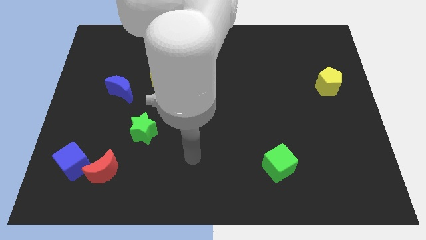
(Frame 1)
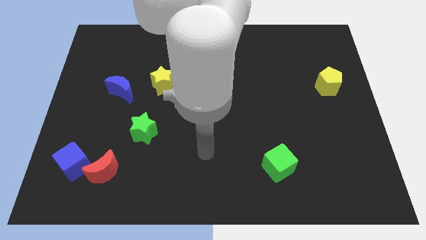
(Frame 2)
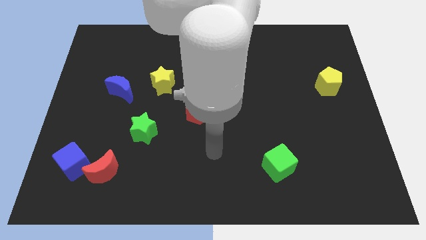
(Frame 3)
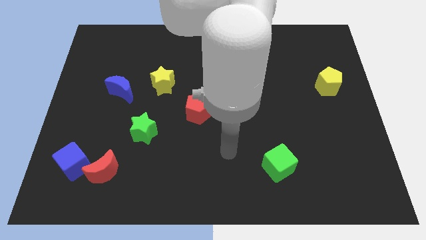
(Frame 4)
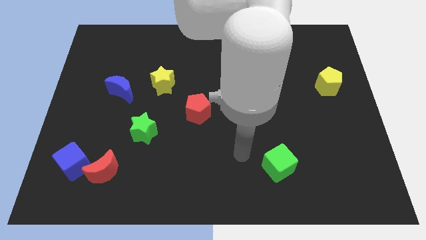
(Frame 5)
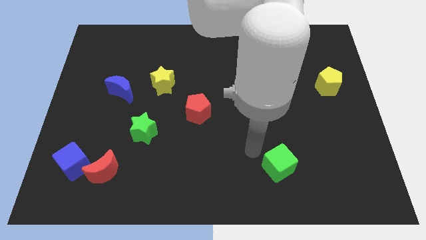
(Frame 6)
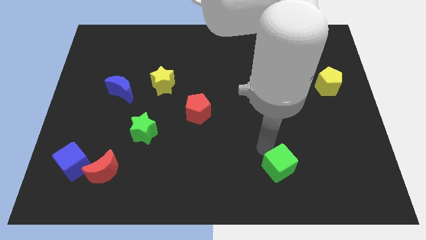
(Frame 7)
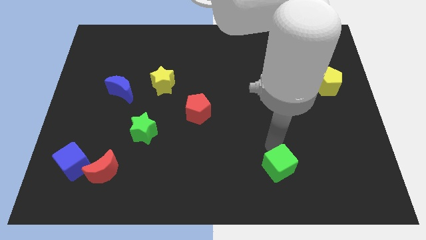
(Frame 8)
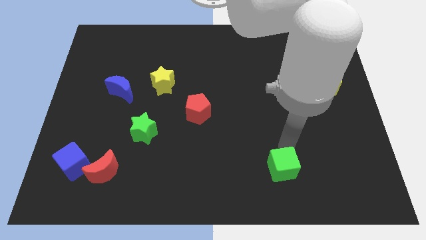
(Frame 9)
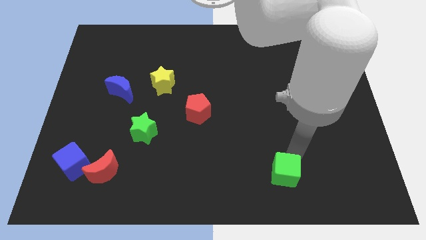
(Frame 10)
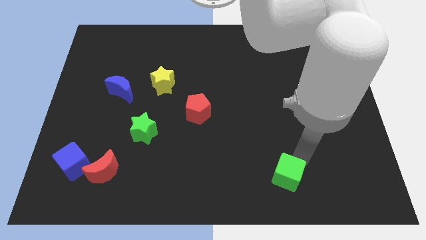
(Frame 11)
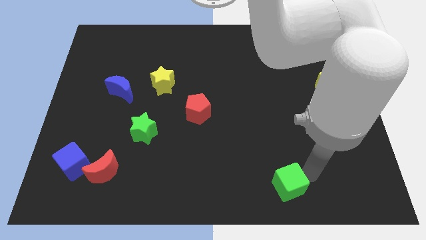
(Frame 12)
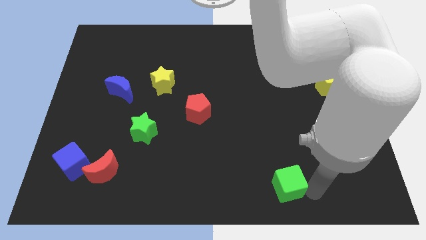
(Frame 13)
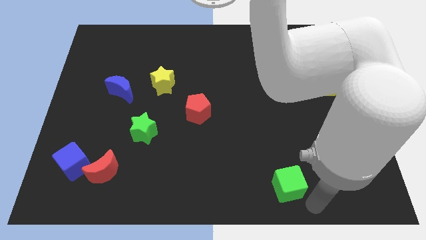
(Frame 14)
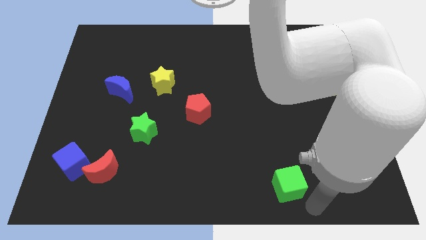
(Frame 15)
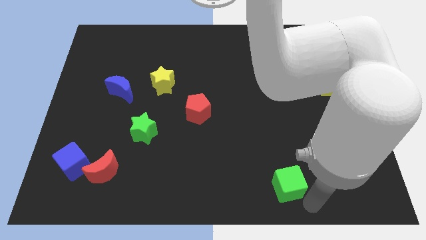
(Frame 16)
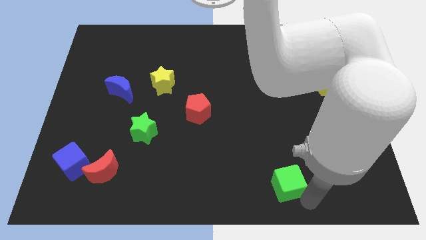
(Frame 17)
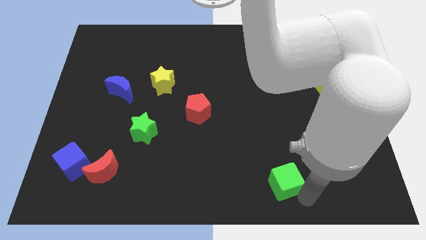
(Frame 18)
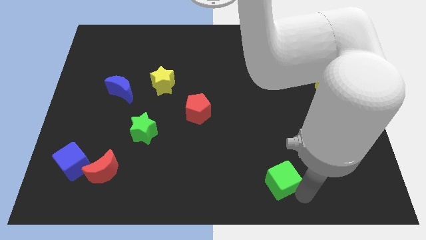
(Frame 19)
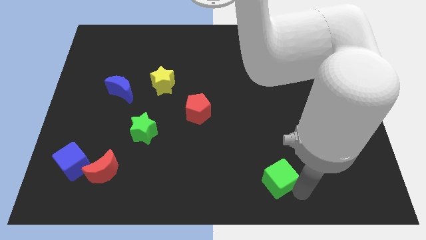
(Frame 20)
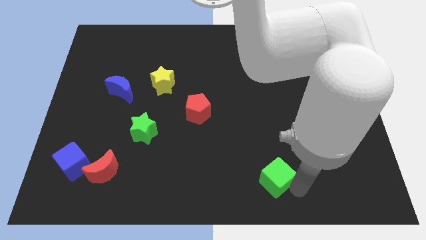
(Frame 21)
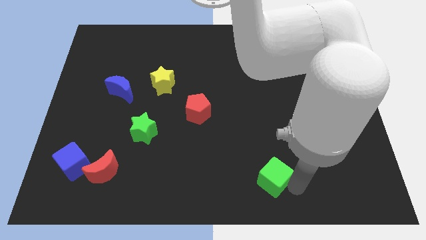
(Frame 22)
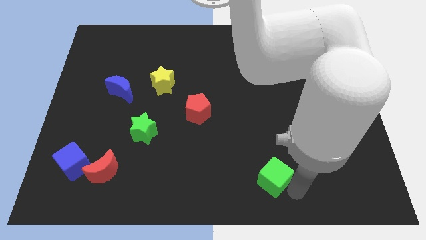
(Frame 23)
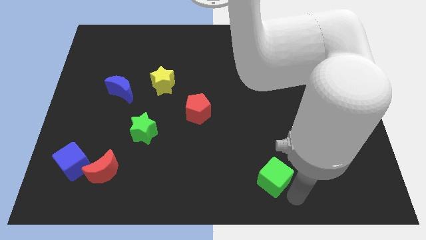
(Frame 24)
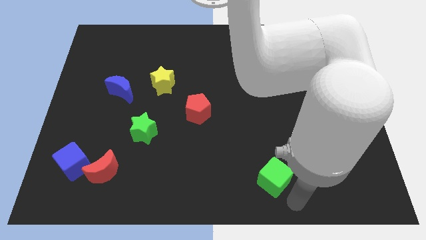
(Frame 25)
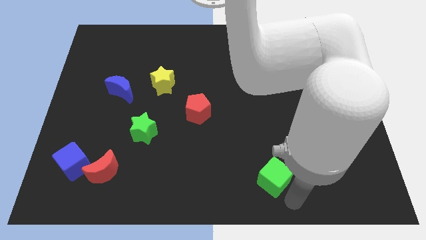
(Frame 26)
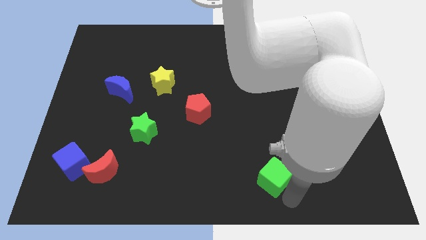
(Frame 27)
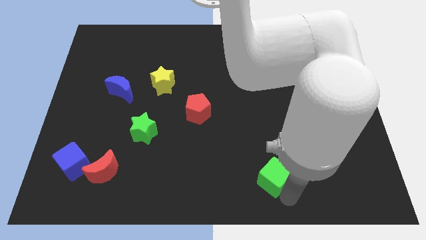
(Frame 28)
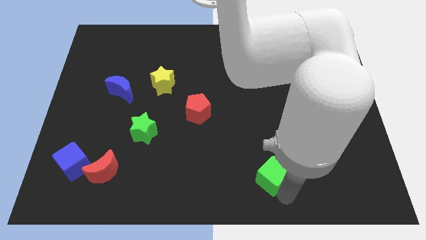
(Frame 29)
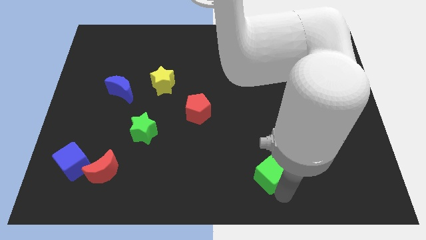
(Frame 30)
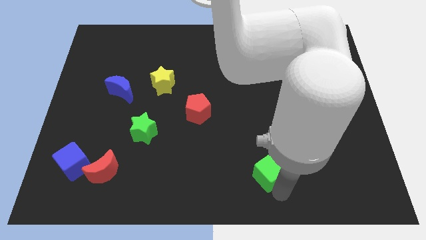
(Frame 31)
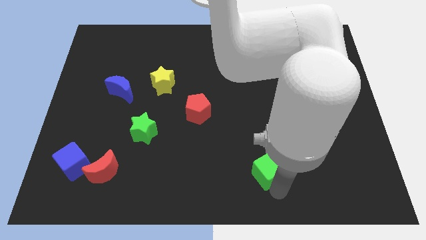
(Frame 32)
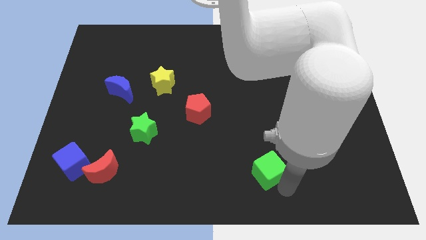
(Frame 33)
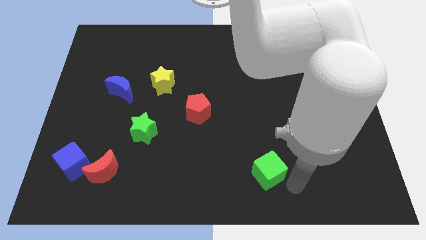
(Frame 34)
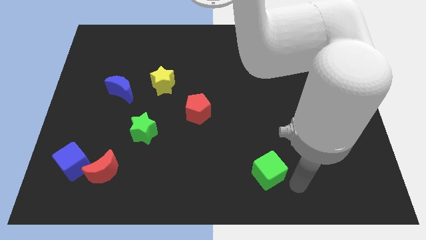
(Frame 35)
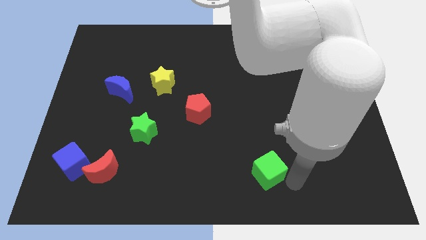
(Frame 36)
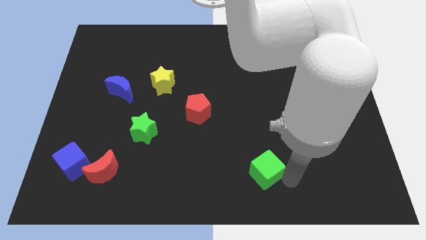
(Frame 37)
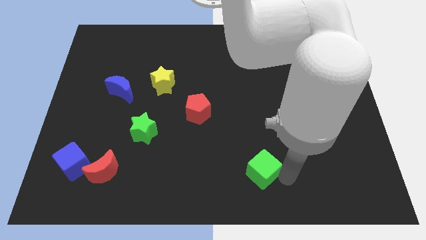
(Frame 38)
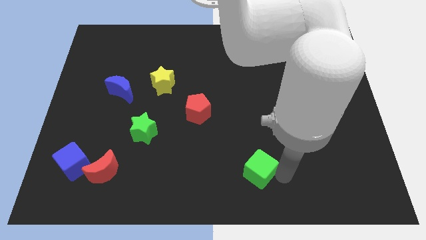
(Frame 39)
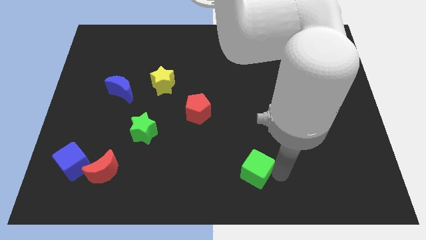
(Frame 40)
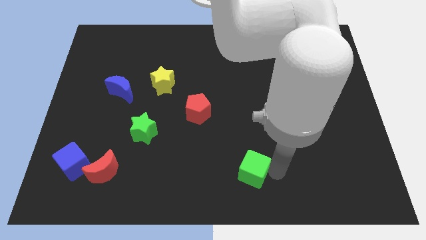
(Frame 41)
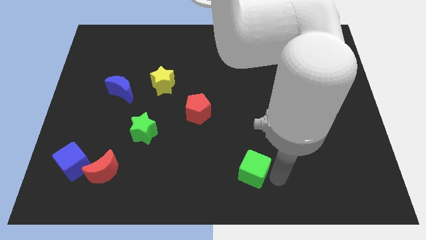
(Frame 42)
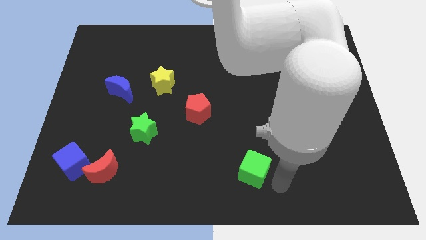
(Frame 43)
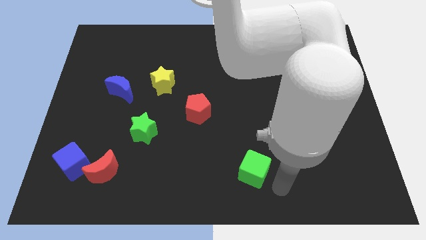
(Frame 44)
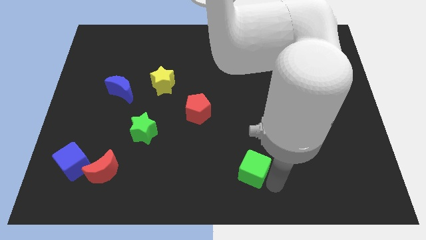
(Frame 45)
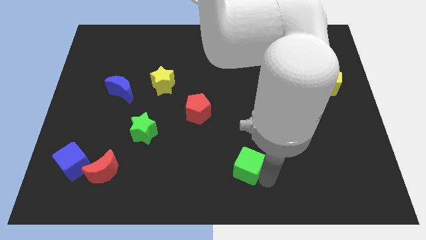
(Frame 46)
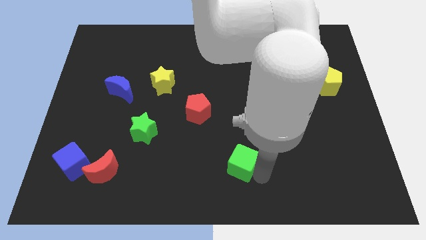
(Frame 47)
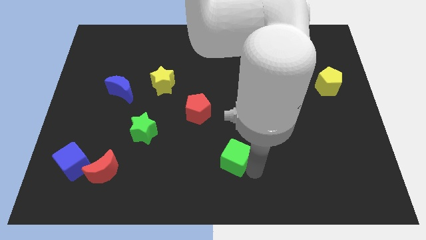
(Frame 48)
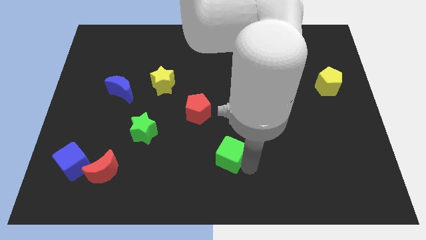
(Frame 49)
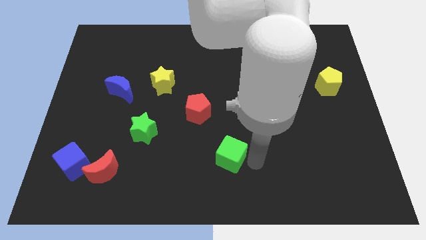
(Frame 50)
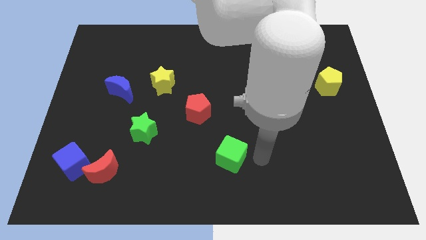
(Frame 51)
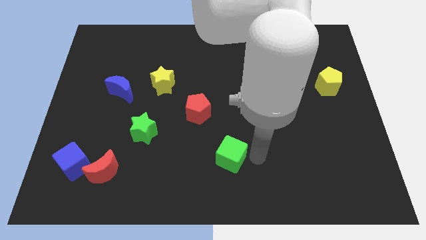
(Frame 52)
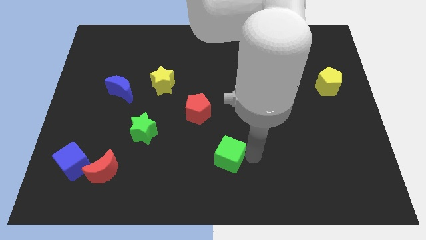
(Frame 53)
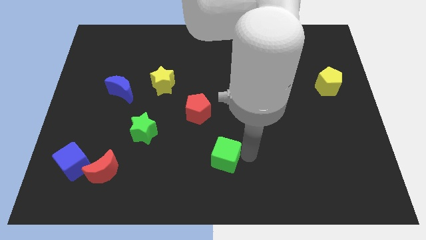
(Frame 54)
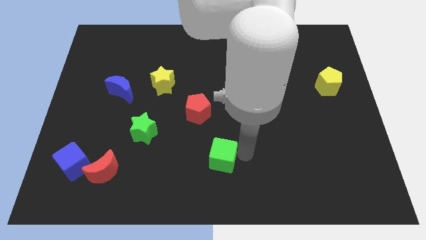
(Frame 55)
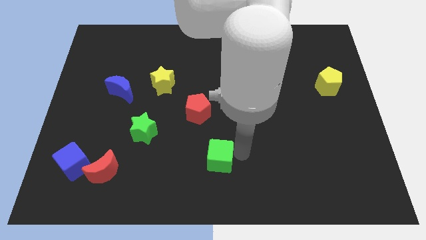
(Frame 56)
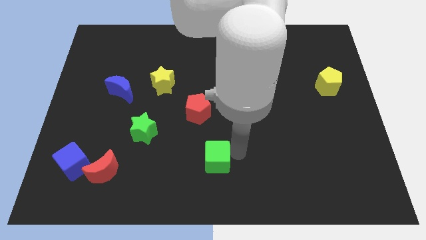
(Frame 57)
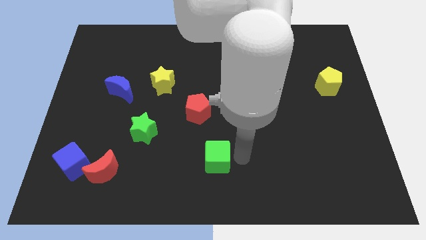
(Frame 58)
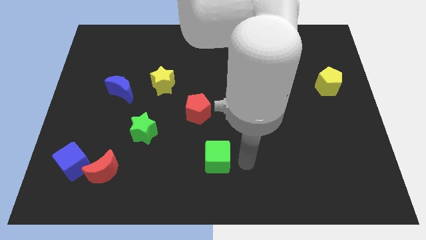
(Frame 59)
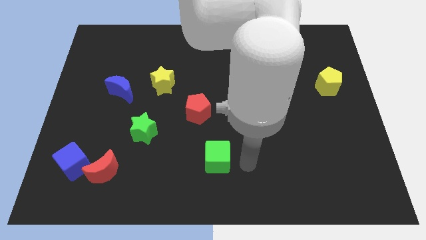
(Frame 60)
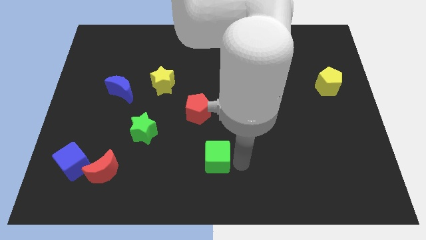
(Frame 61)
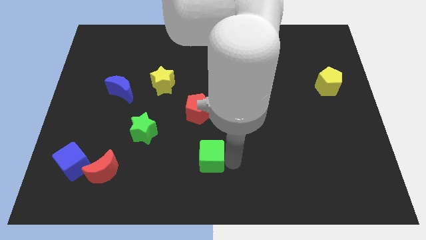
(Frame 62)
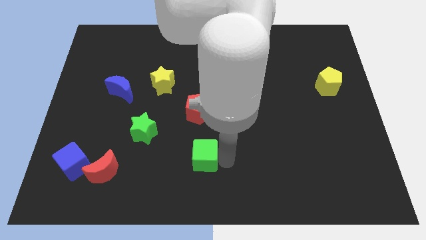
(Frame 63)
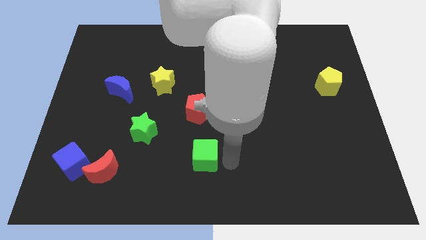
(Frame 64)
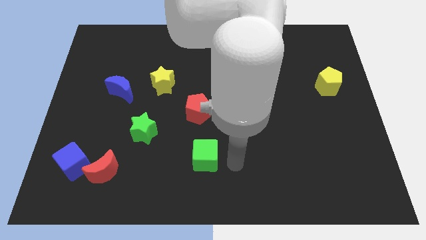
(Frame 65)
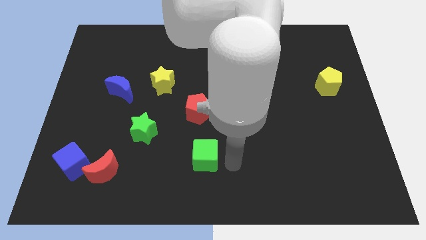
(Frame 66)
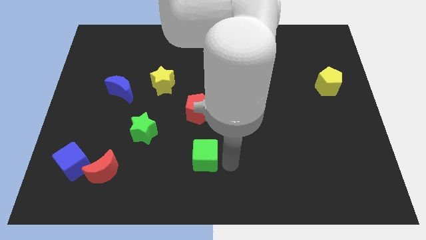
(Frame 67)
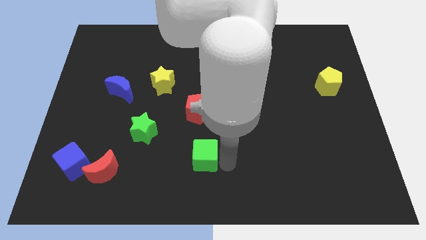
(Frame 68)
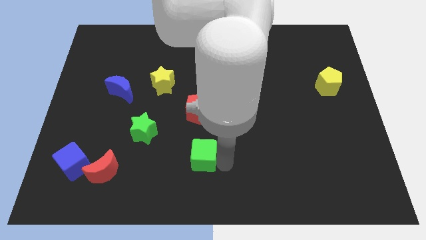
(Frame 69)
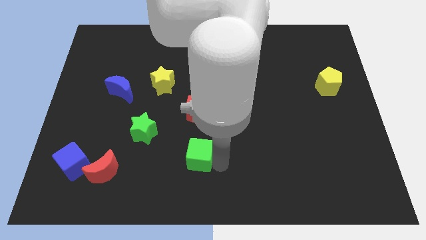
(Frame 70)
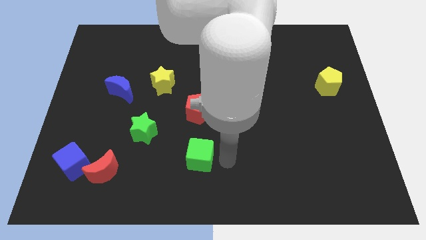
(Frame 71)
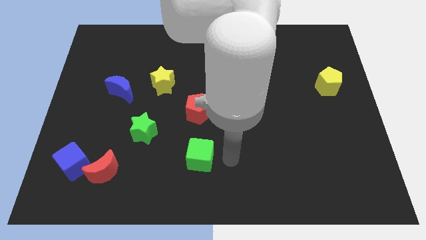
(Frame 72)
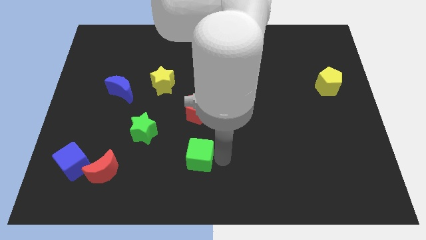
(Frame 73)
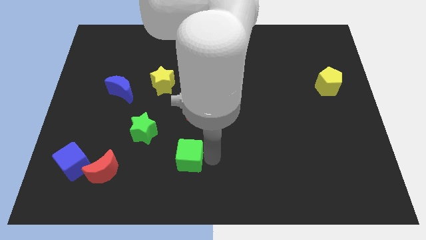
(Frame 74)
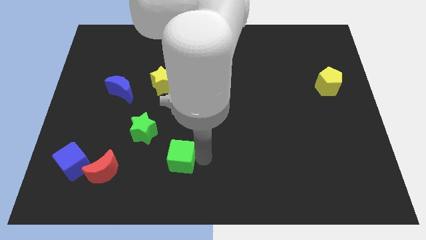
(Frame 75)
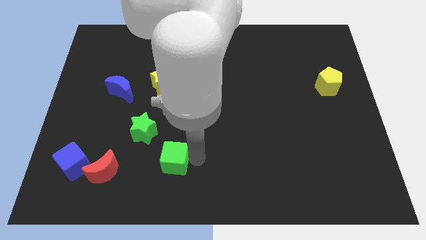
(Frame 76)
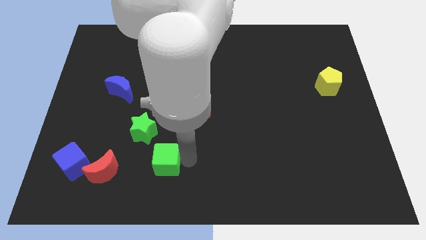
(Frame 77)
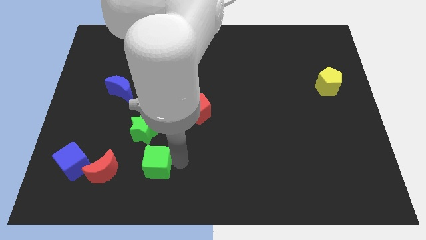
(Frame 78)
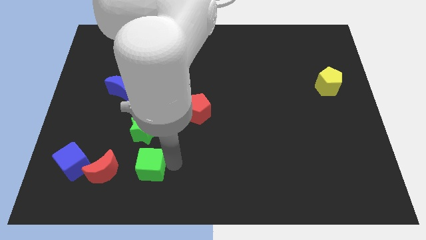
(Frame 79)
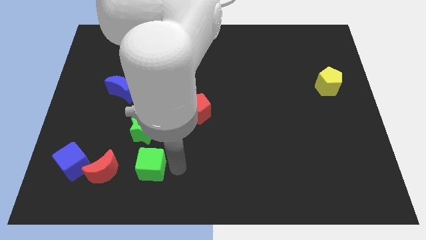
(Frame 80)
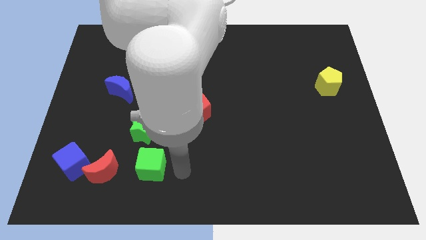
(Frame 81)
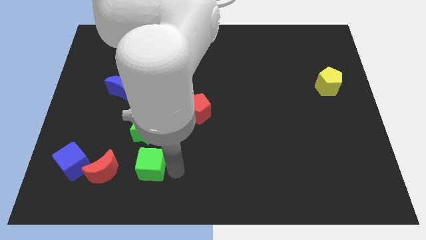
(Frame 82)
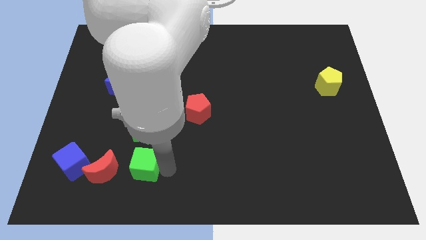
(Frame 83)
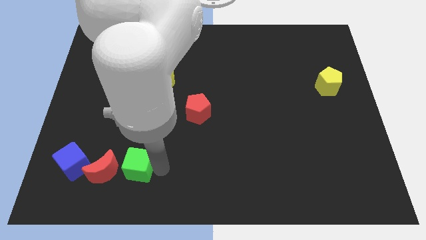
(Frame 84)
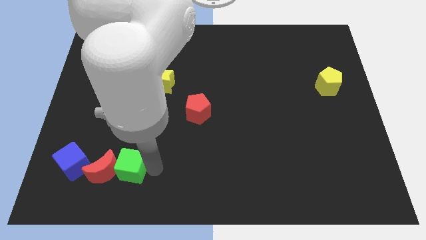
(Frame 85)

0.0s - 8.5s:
slide the green cube towards the red moon
